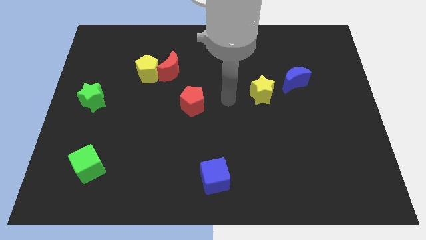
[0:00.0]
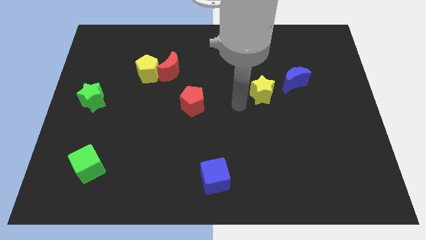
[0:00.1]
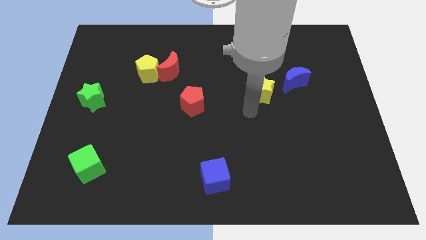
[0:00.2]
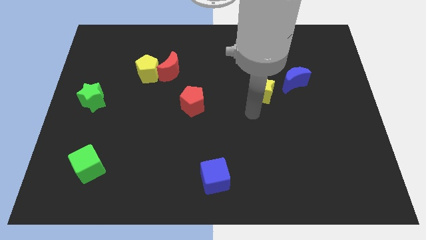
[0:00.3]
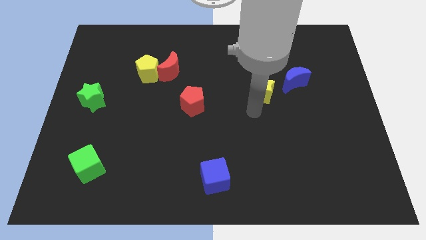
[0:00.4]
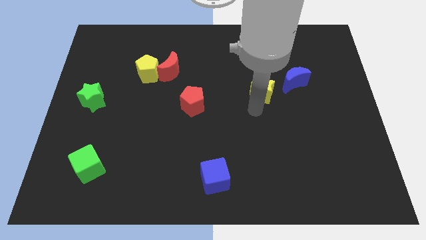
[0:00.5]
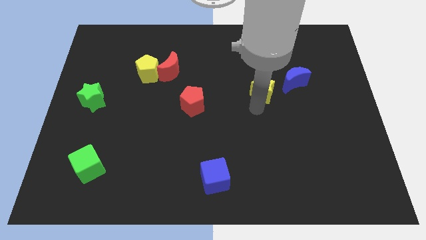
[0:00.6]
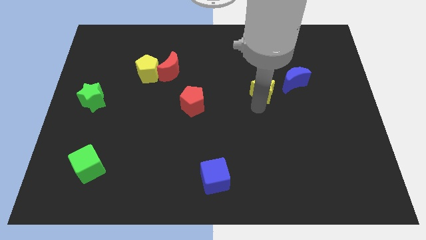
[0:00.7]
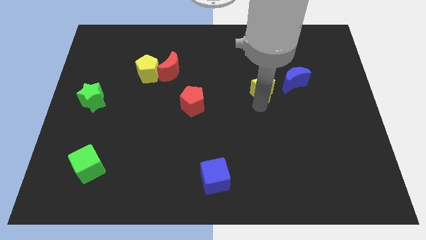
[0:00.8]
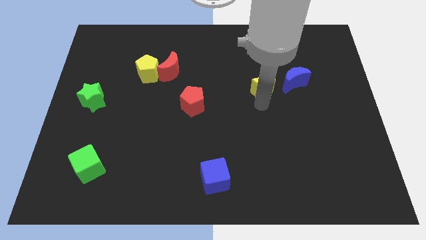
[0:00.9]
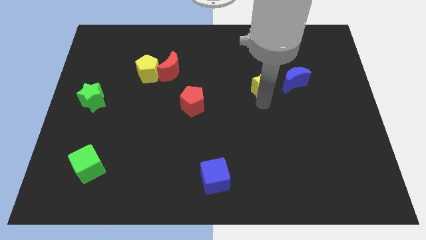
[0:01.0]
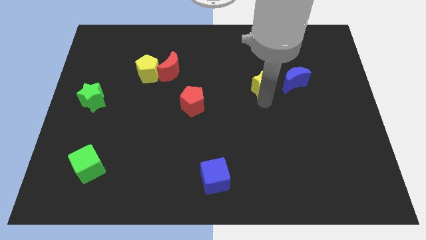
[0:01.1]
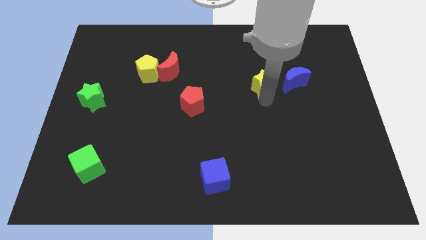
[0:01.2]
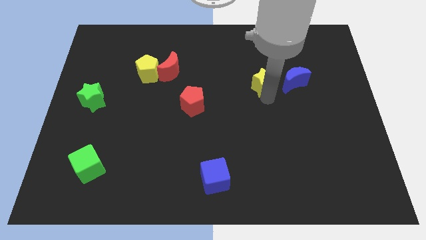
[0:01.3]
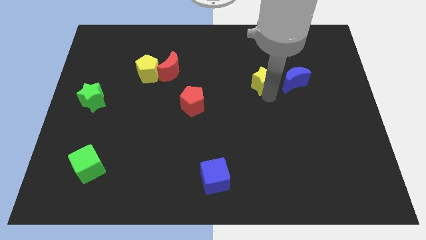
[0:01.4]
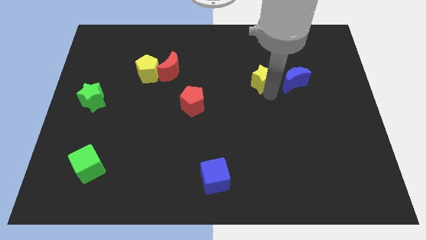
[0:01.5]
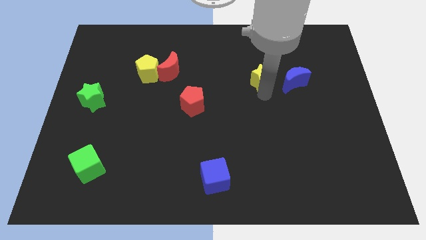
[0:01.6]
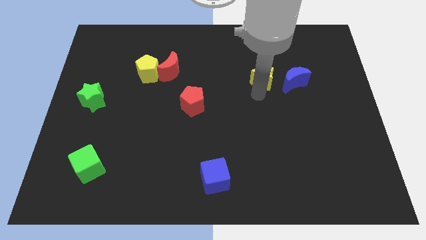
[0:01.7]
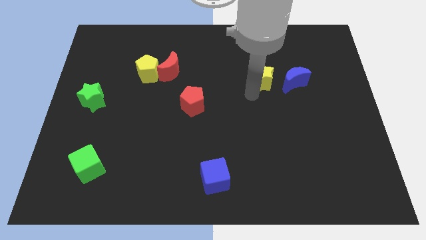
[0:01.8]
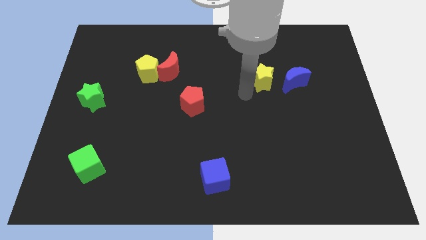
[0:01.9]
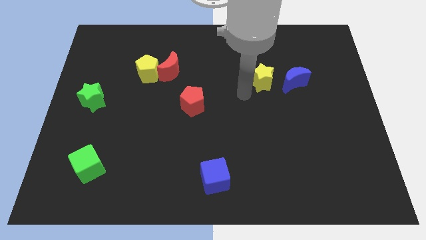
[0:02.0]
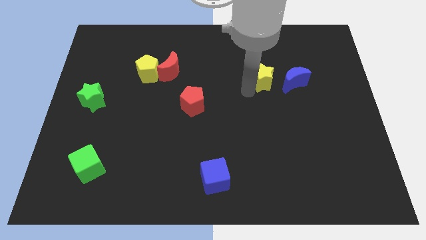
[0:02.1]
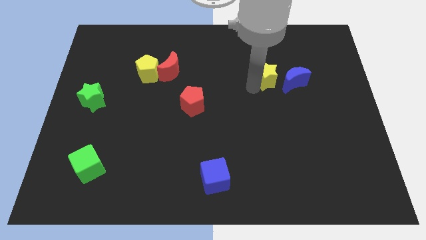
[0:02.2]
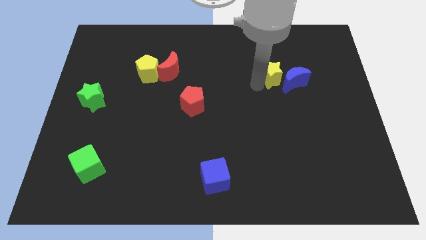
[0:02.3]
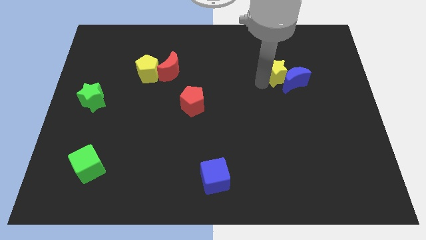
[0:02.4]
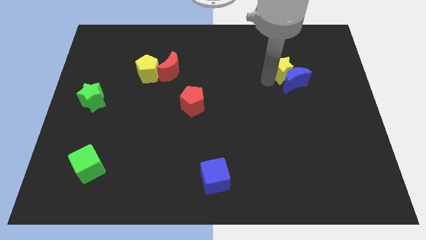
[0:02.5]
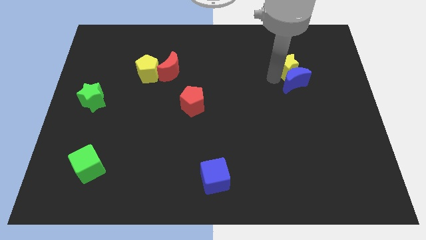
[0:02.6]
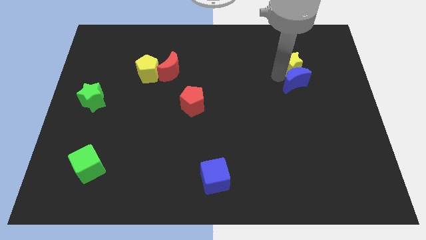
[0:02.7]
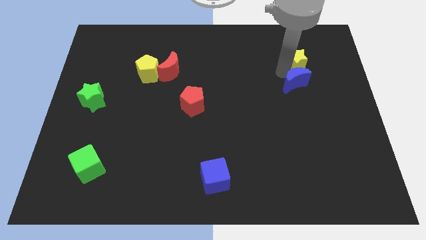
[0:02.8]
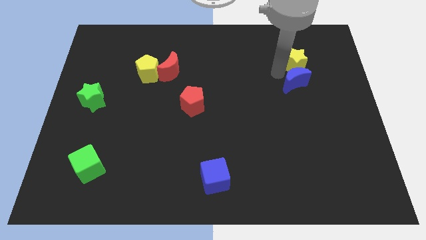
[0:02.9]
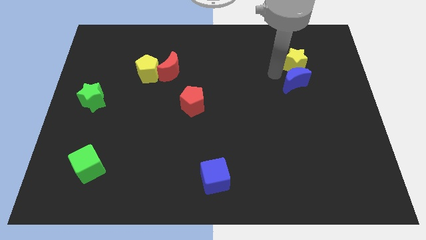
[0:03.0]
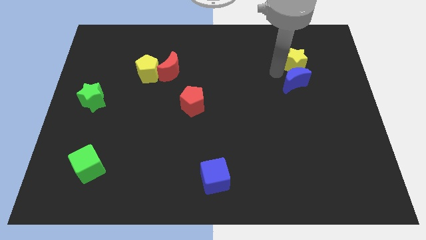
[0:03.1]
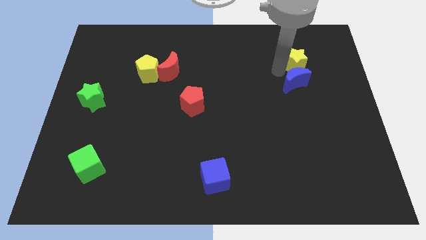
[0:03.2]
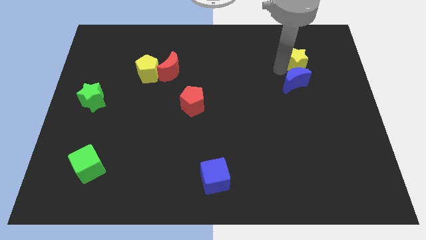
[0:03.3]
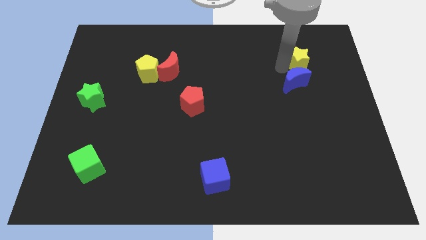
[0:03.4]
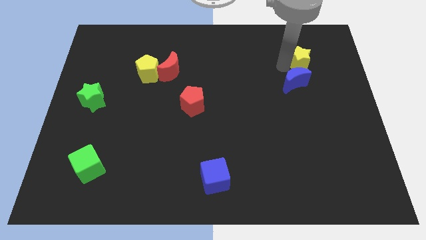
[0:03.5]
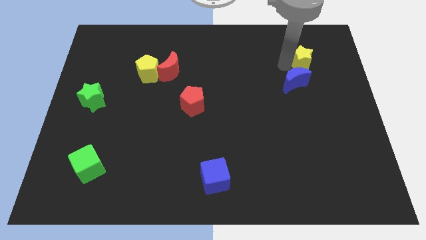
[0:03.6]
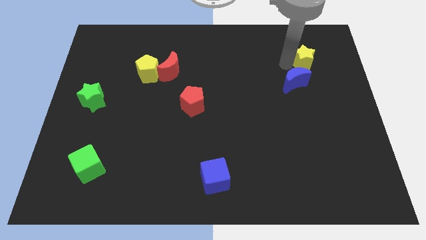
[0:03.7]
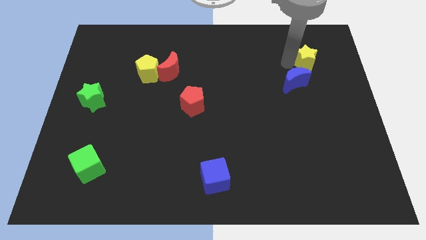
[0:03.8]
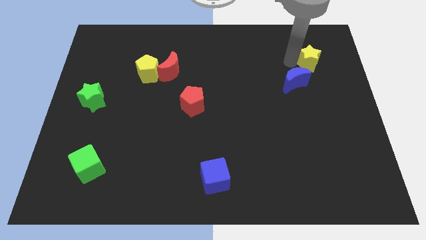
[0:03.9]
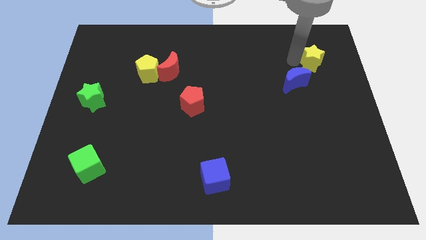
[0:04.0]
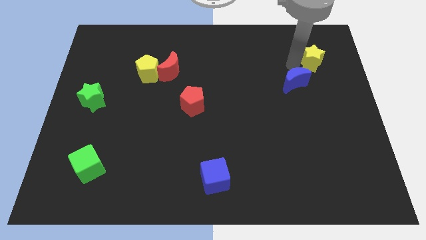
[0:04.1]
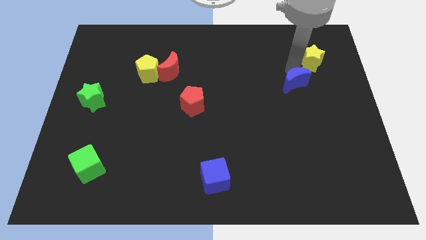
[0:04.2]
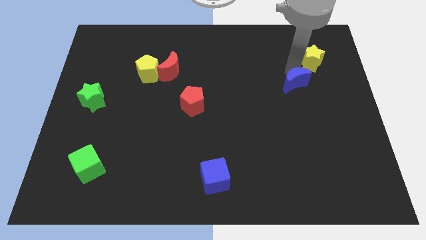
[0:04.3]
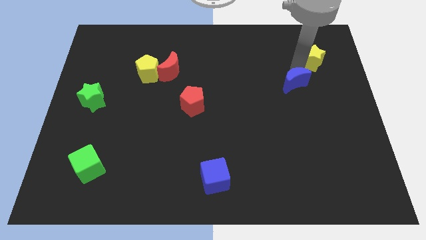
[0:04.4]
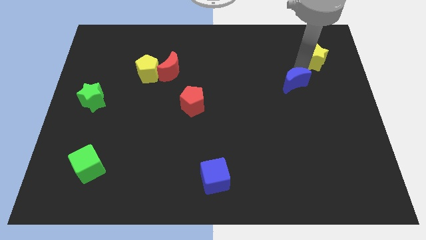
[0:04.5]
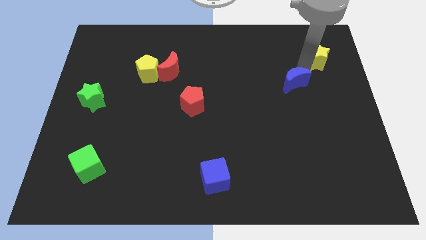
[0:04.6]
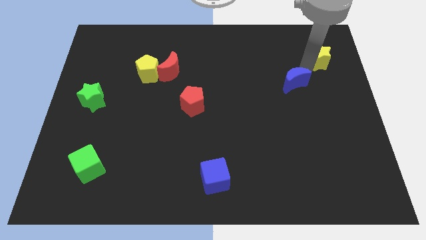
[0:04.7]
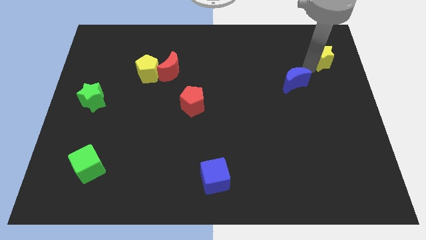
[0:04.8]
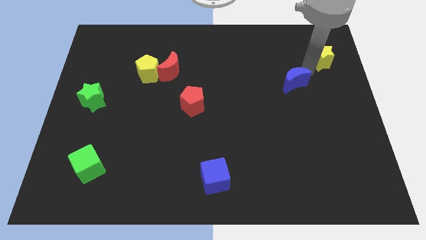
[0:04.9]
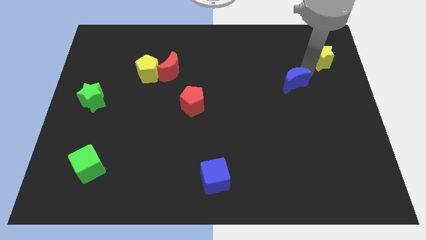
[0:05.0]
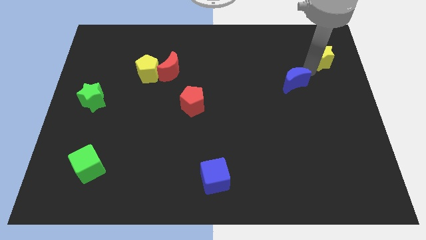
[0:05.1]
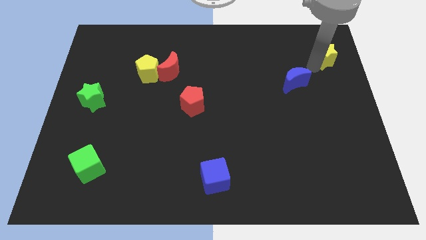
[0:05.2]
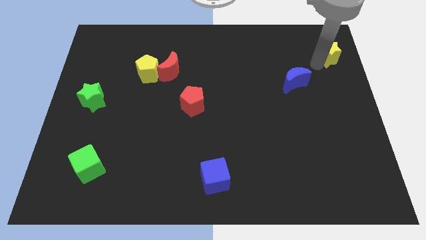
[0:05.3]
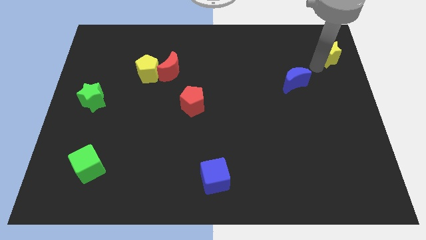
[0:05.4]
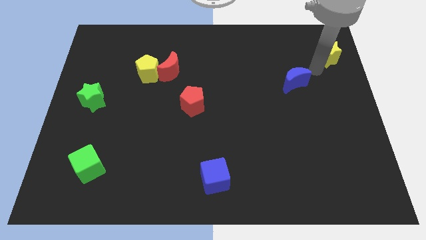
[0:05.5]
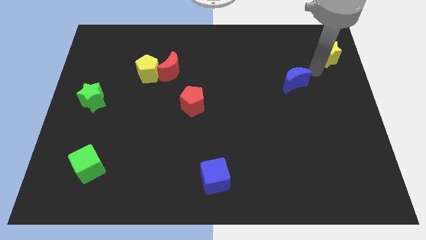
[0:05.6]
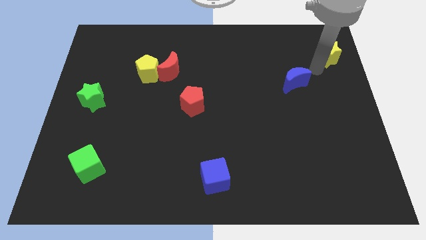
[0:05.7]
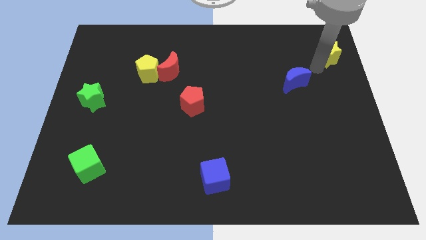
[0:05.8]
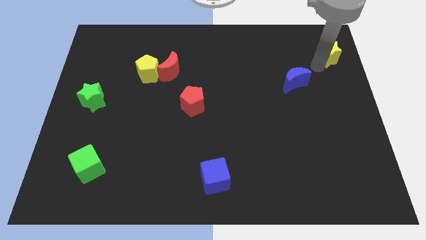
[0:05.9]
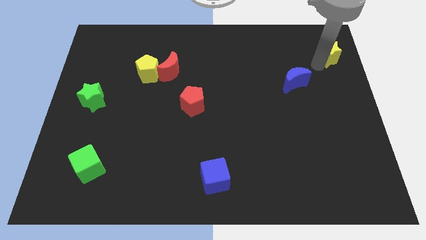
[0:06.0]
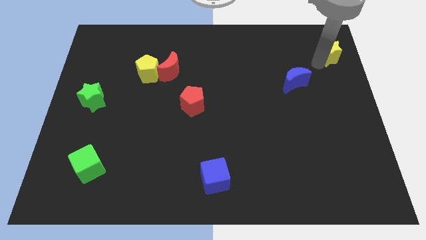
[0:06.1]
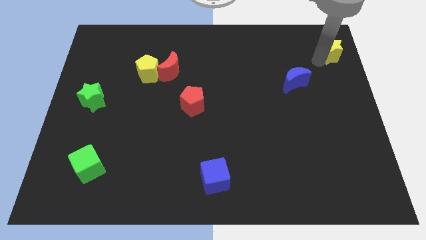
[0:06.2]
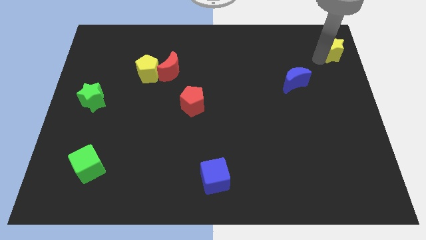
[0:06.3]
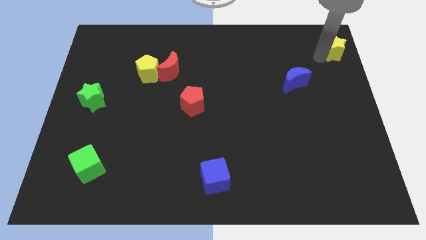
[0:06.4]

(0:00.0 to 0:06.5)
move the yellow star to the upper right corner
